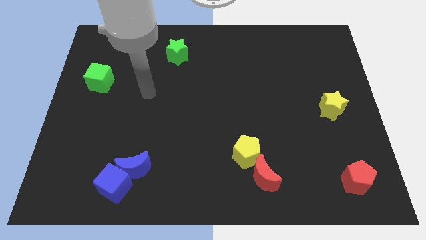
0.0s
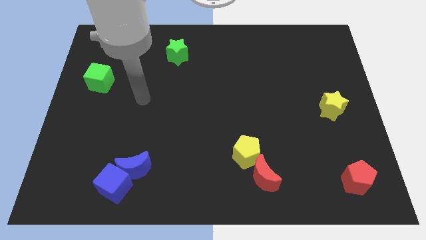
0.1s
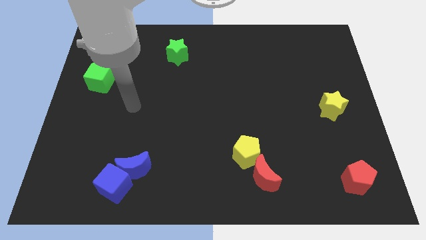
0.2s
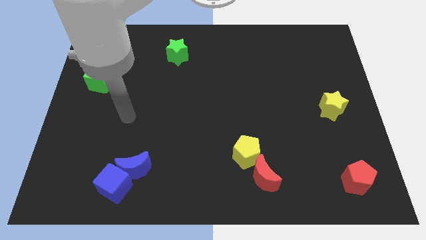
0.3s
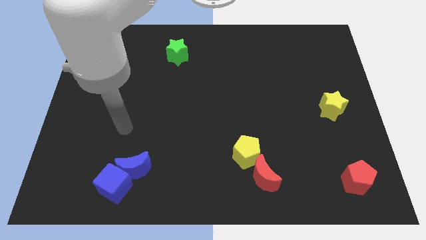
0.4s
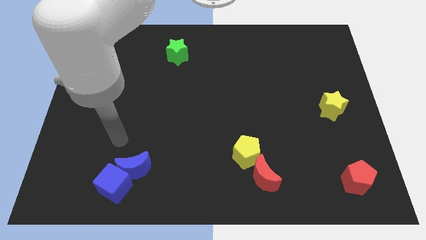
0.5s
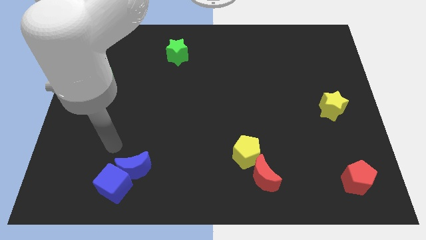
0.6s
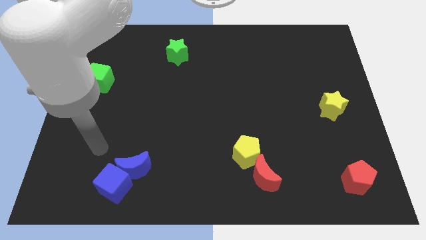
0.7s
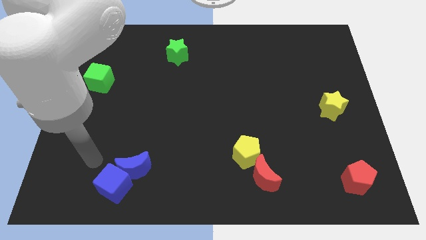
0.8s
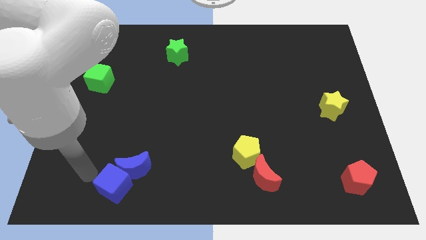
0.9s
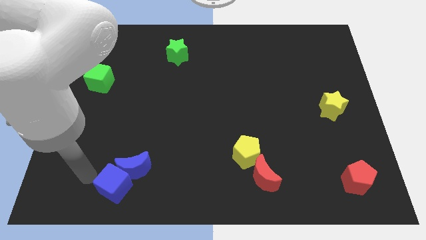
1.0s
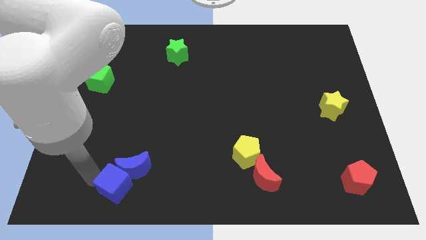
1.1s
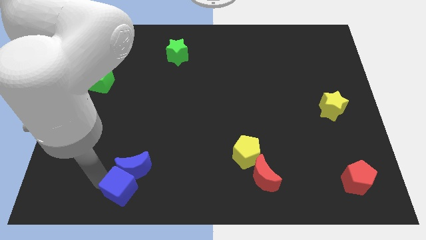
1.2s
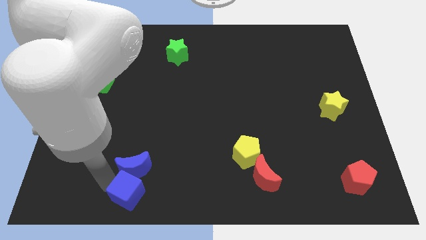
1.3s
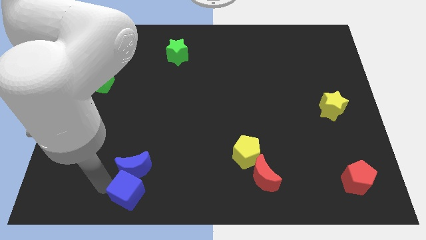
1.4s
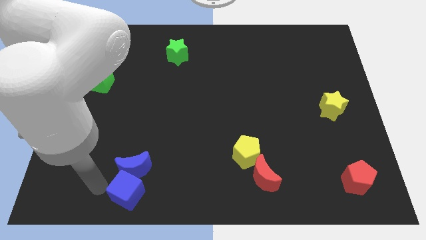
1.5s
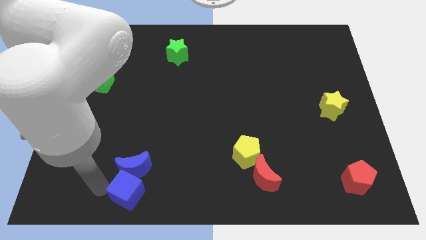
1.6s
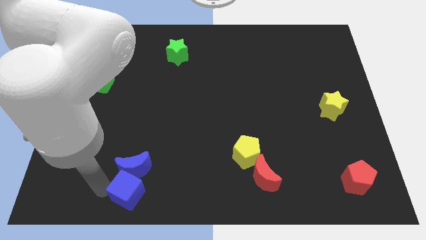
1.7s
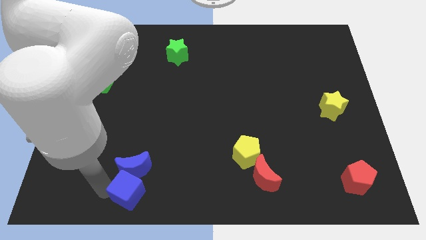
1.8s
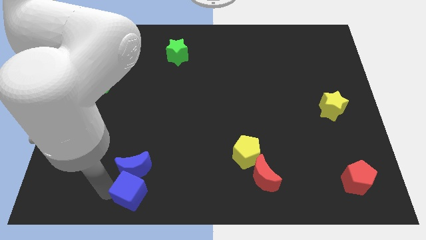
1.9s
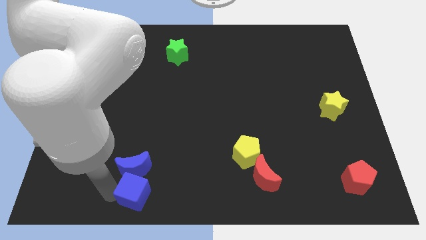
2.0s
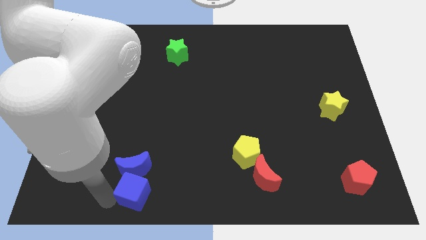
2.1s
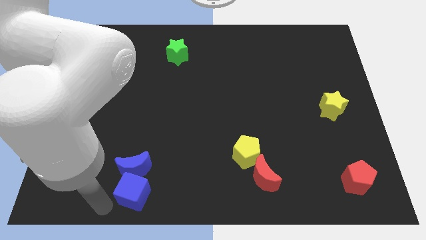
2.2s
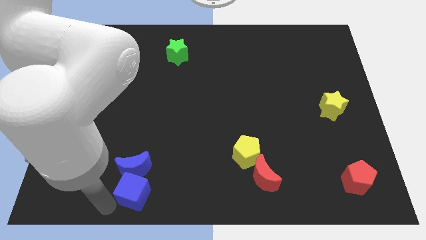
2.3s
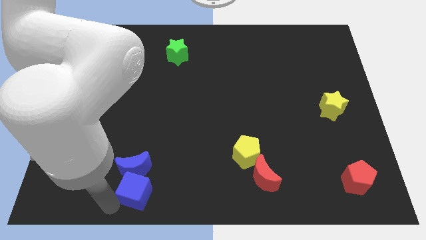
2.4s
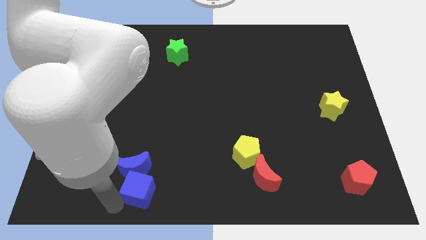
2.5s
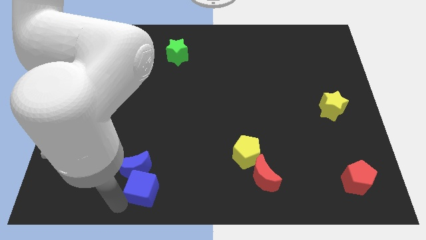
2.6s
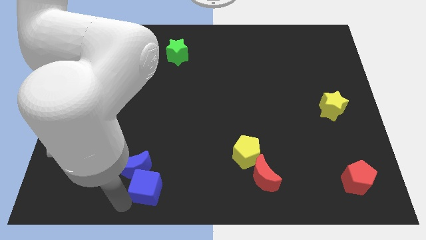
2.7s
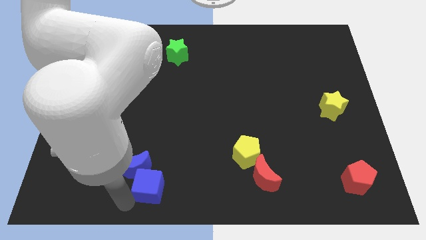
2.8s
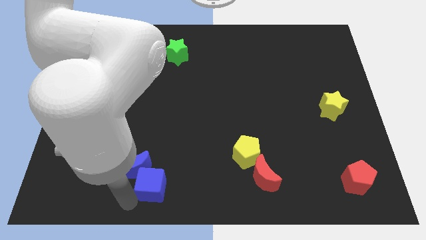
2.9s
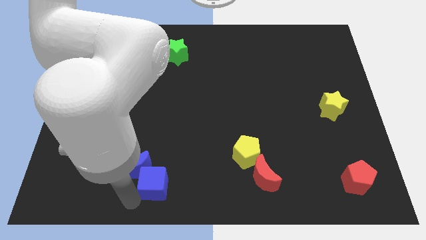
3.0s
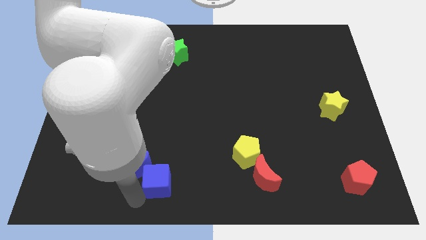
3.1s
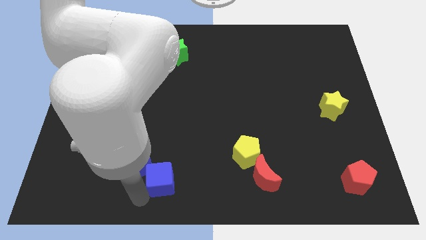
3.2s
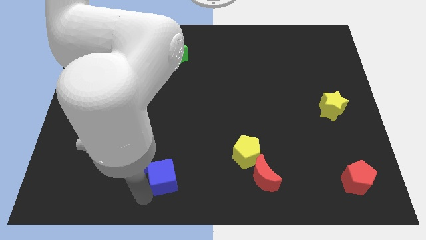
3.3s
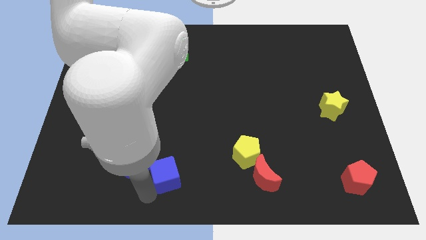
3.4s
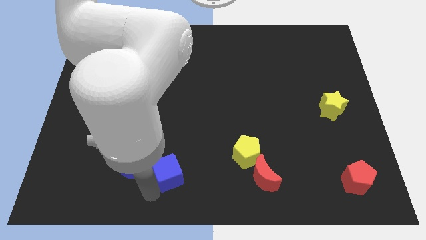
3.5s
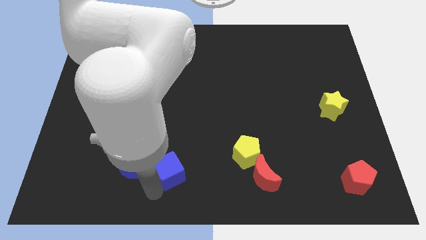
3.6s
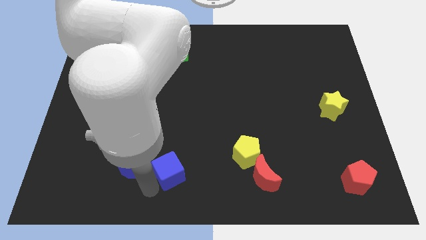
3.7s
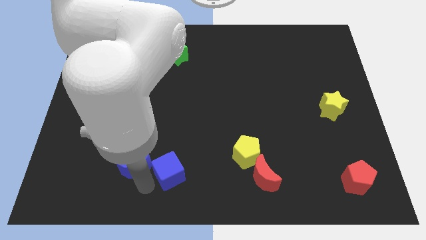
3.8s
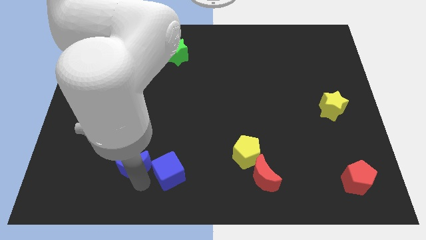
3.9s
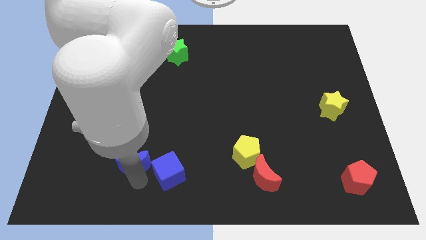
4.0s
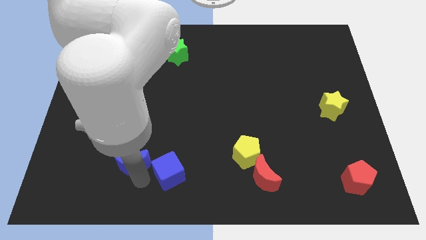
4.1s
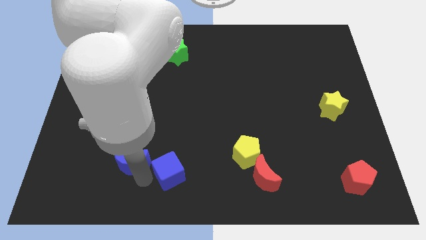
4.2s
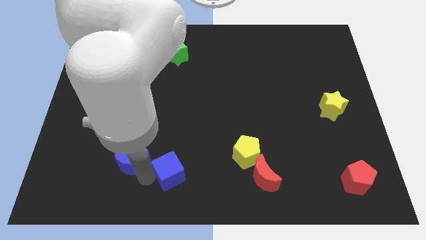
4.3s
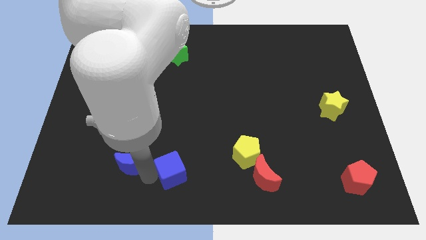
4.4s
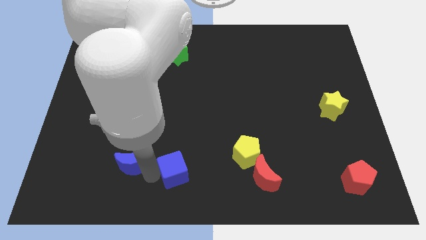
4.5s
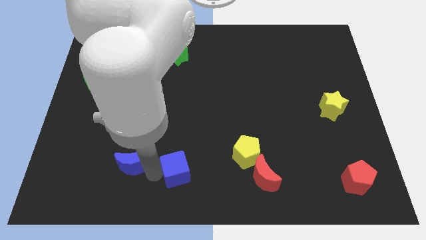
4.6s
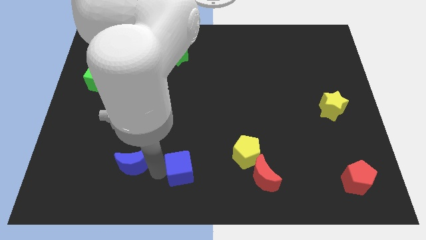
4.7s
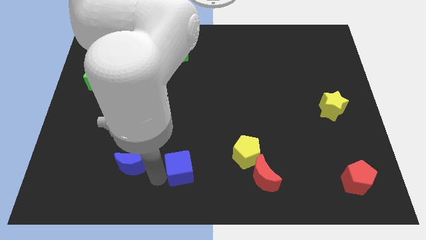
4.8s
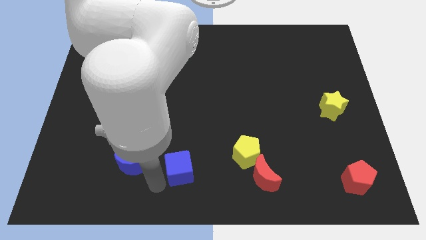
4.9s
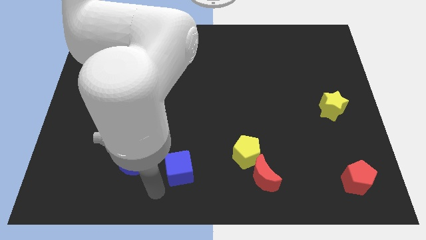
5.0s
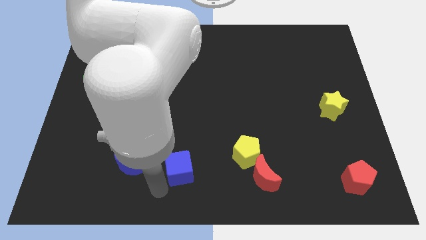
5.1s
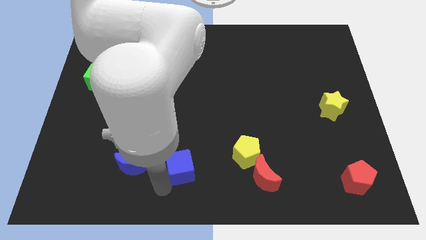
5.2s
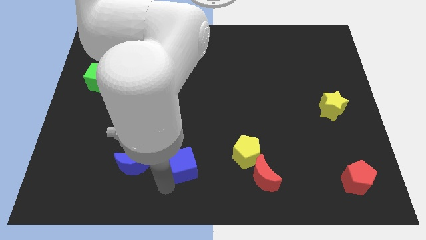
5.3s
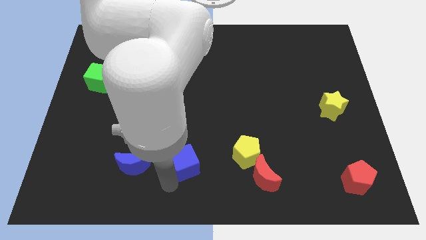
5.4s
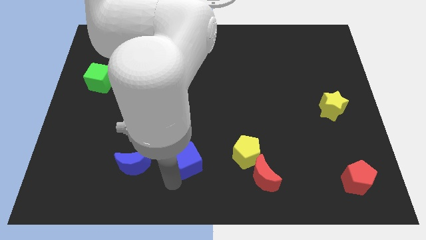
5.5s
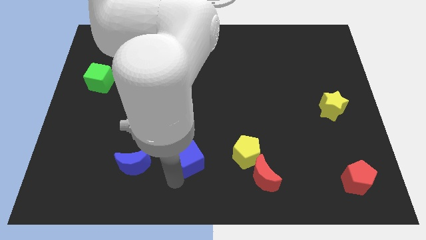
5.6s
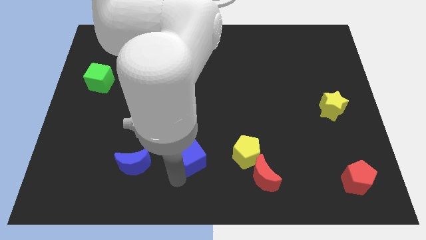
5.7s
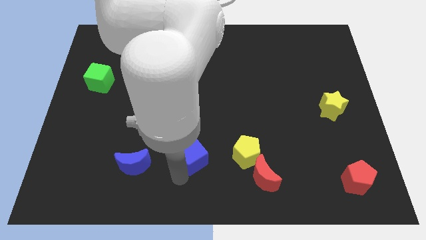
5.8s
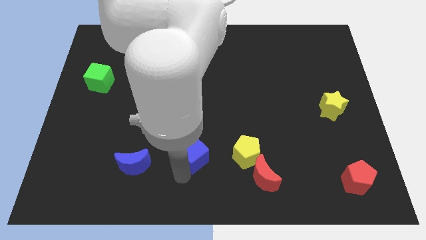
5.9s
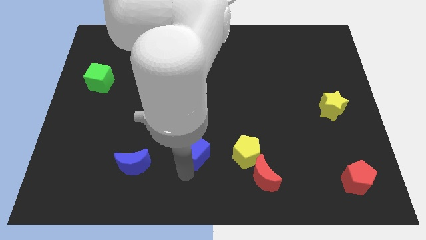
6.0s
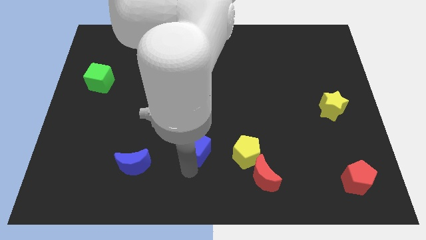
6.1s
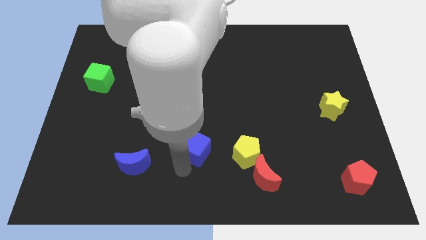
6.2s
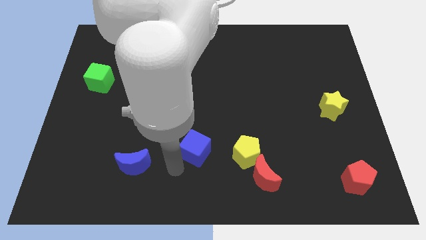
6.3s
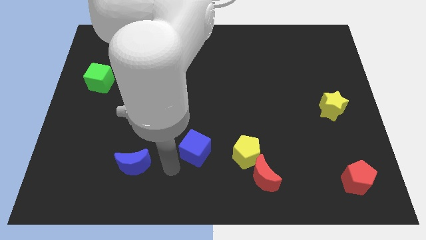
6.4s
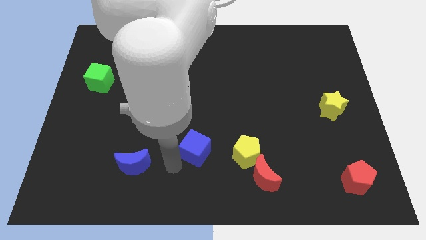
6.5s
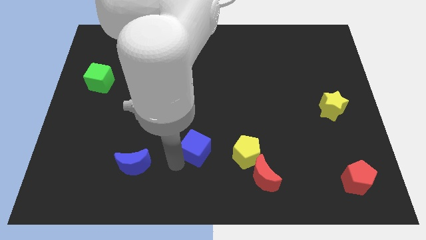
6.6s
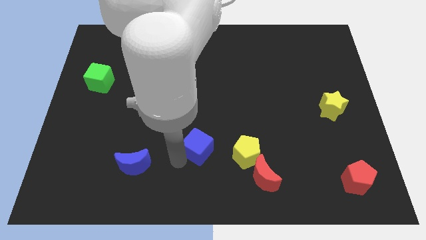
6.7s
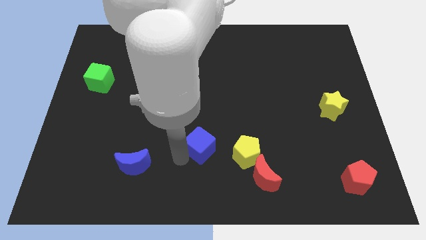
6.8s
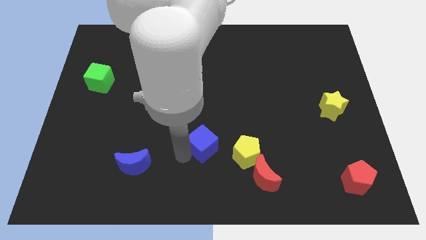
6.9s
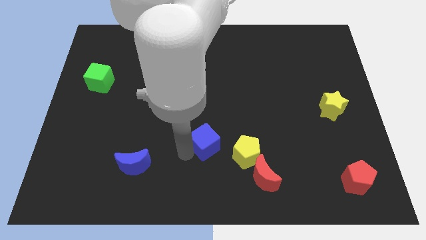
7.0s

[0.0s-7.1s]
slide the blue cube to the top left of the yellow pentagon
